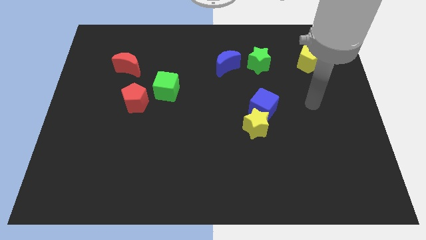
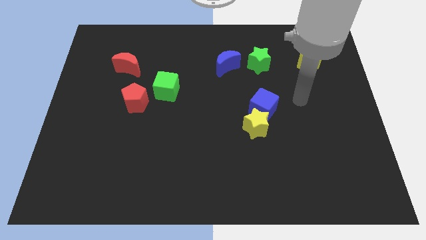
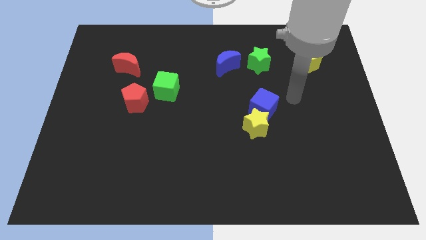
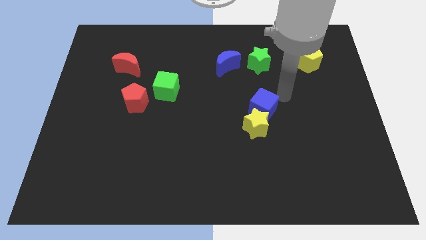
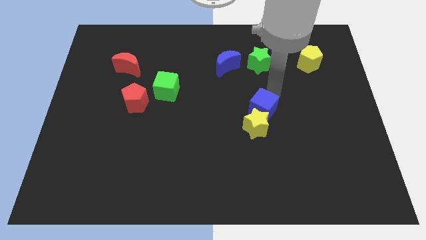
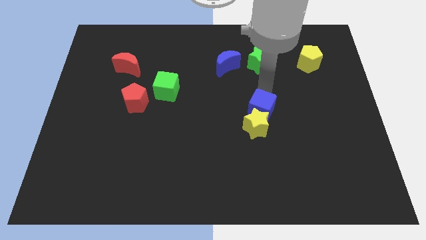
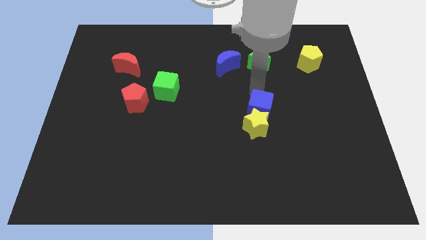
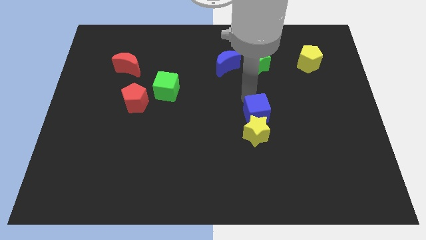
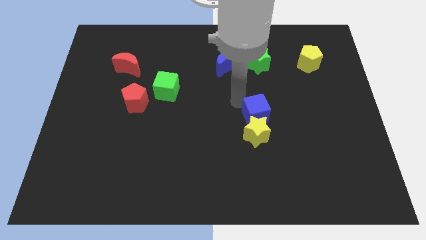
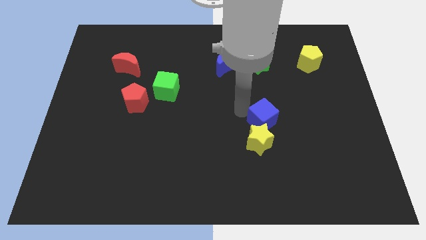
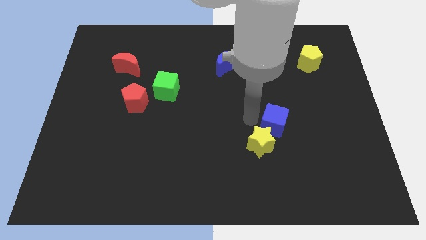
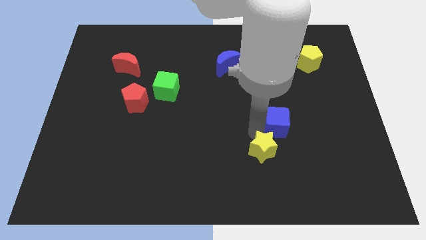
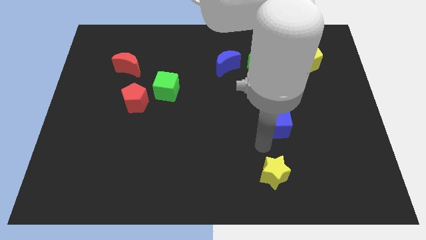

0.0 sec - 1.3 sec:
move the blue cube away from the yellow star

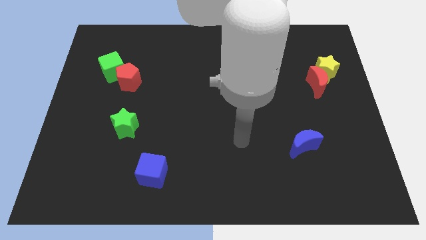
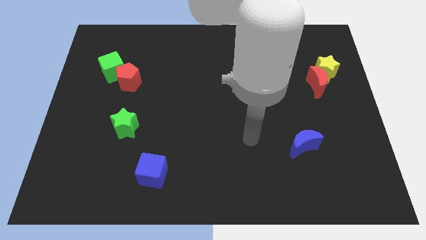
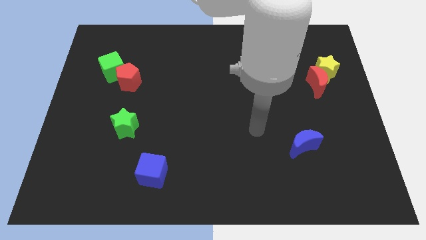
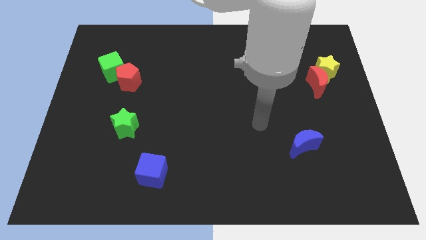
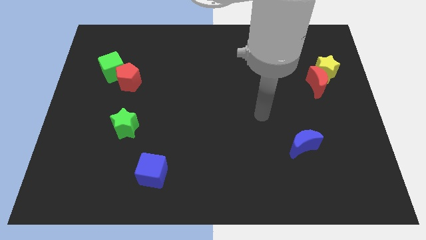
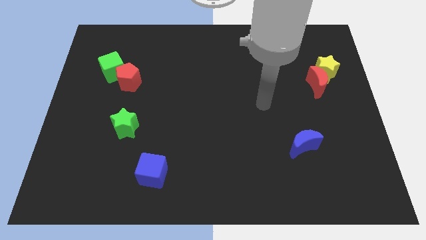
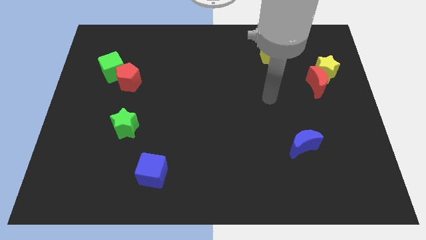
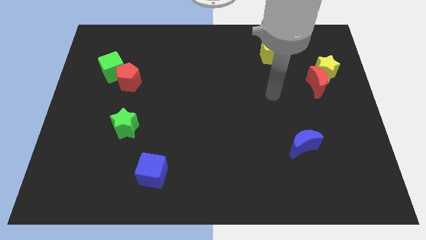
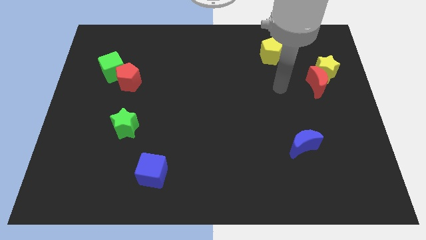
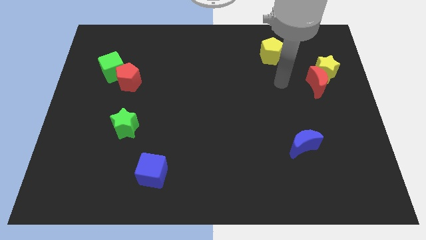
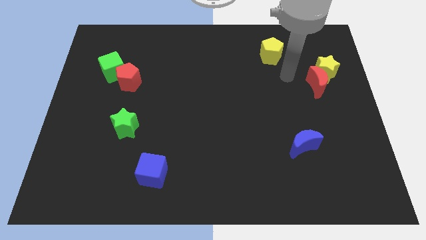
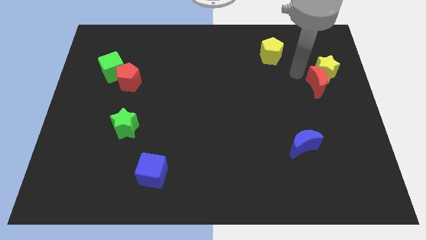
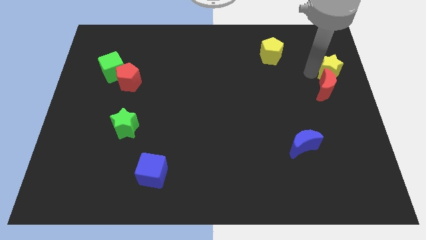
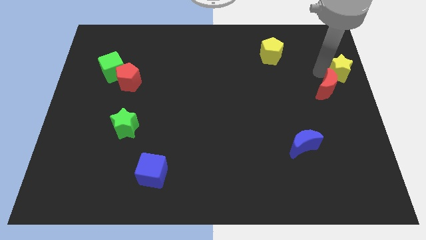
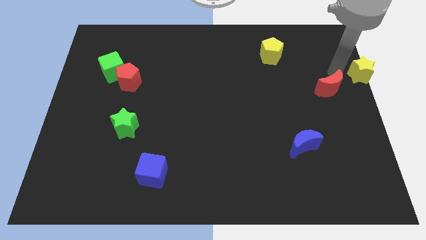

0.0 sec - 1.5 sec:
pull the red moon apart from the yellow star

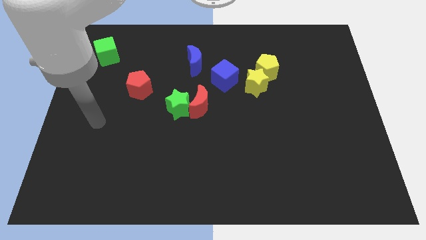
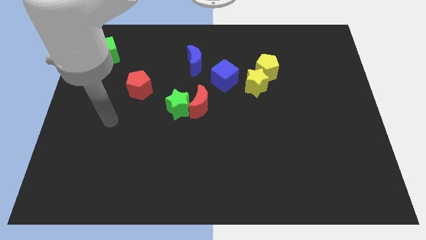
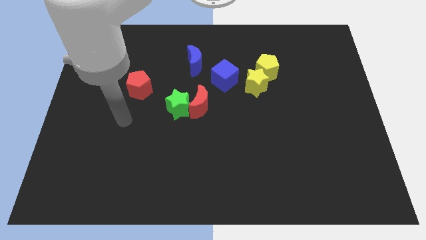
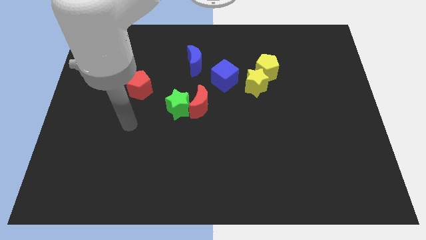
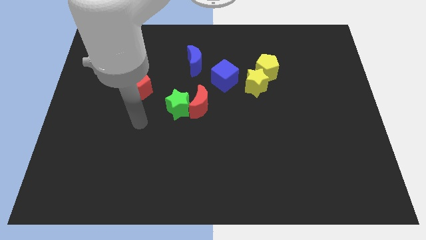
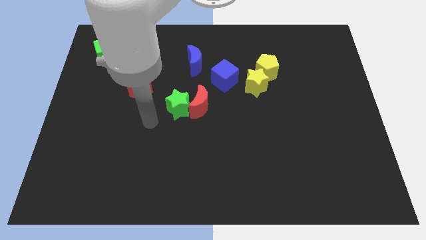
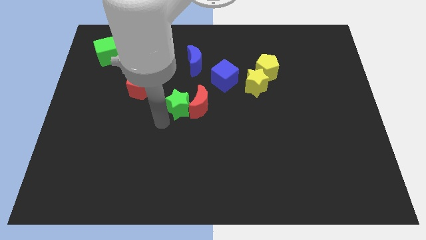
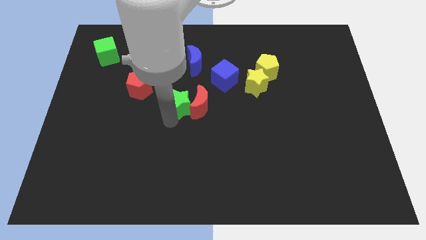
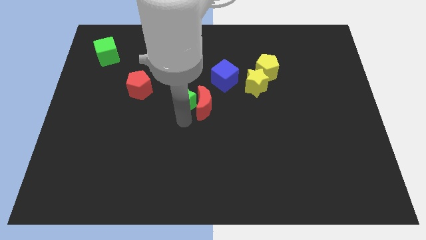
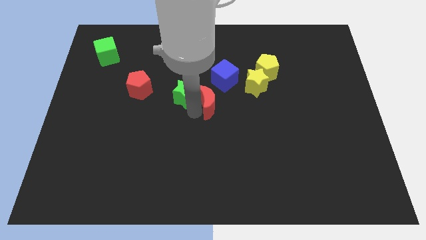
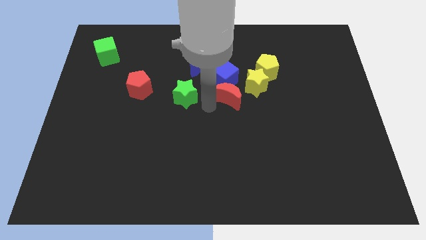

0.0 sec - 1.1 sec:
move the green star away from the red moon

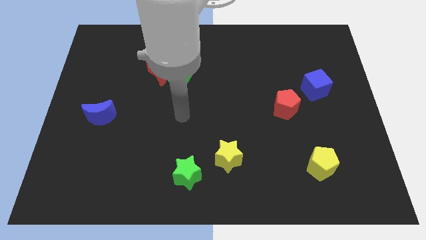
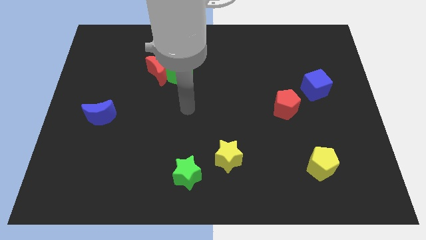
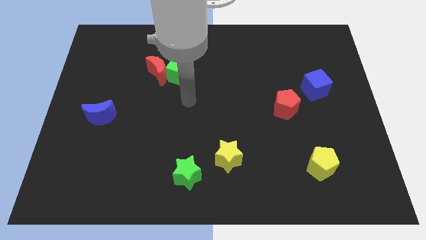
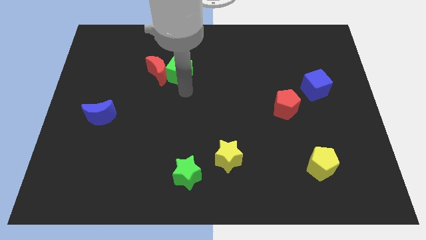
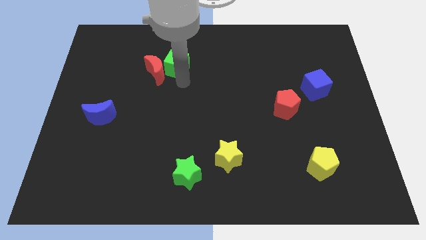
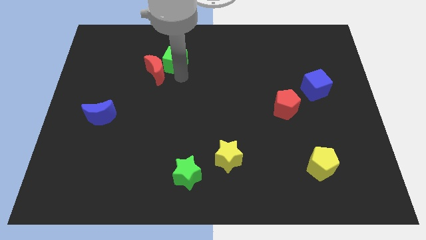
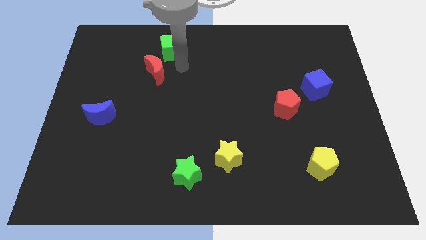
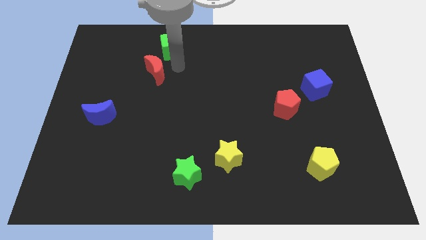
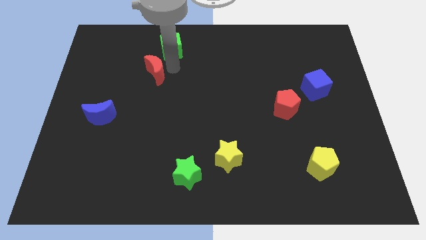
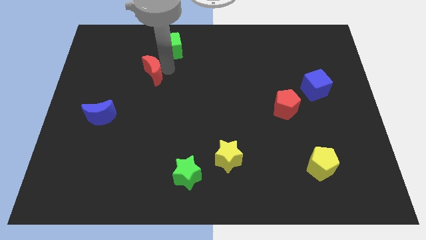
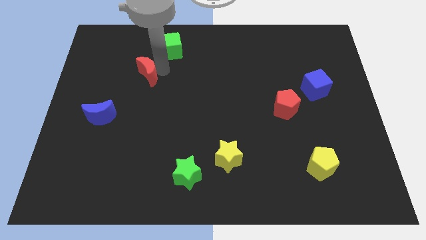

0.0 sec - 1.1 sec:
separate the red moon from the green cube

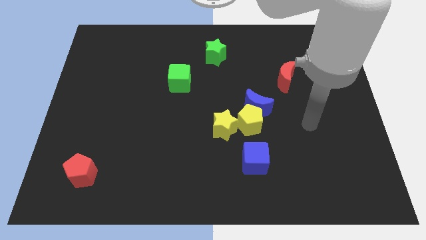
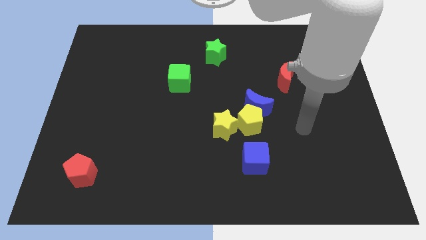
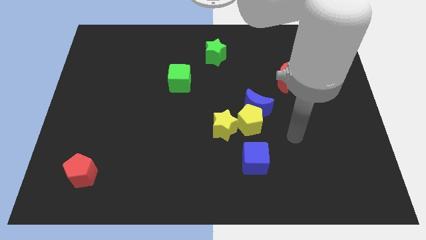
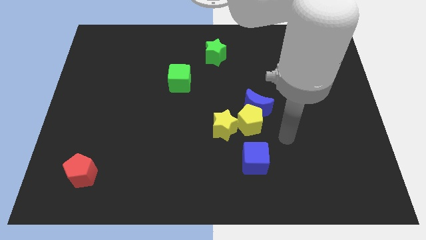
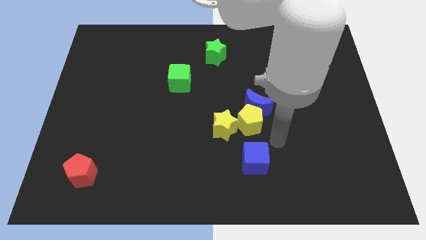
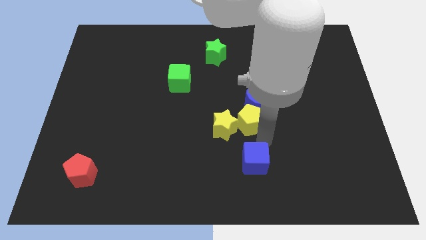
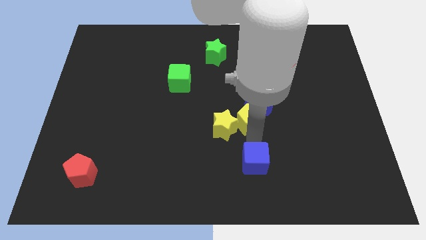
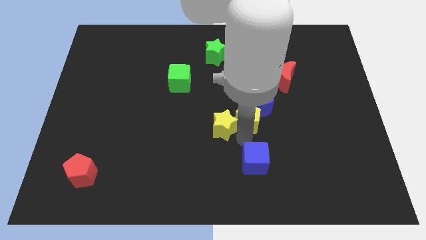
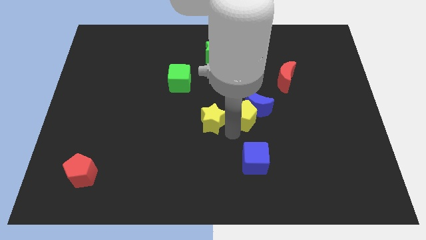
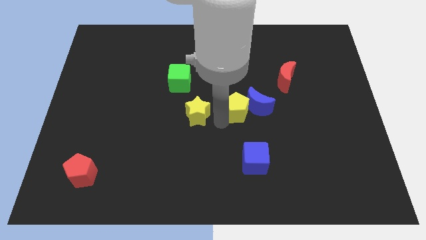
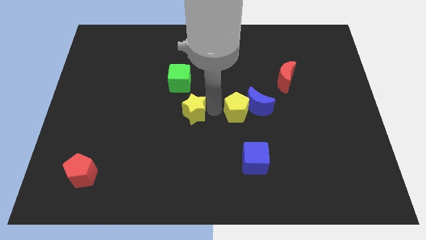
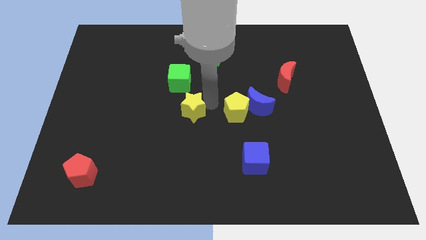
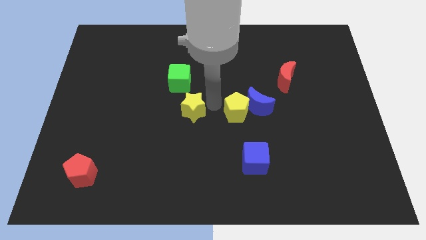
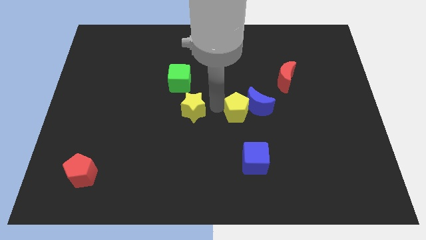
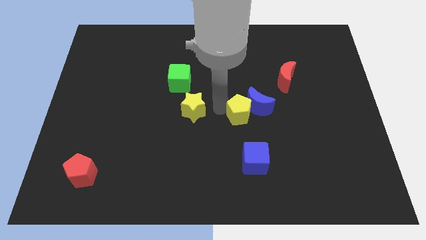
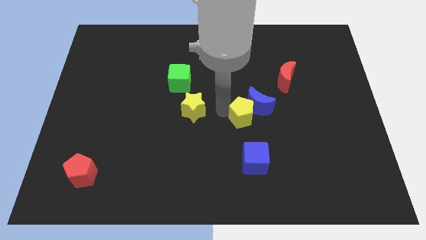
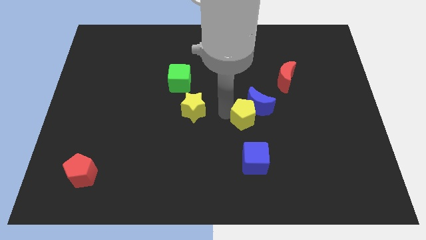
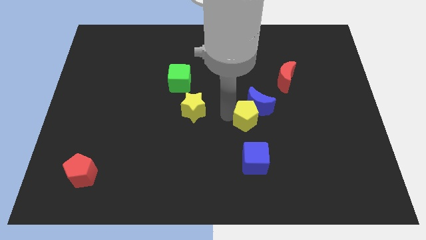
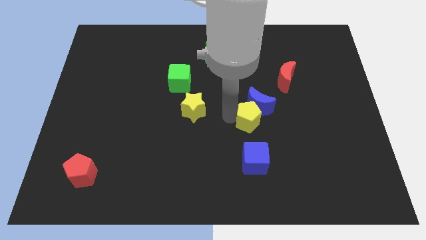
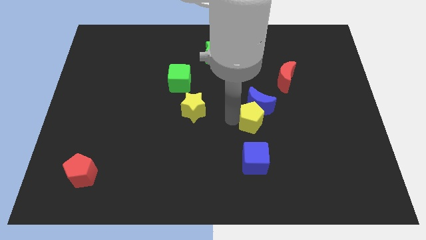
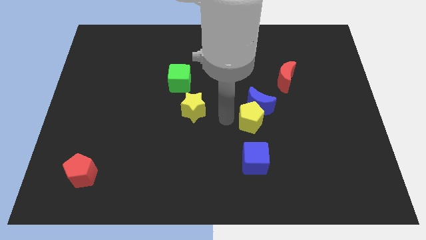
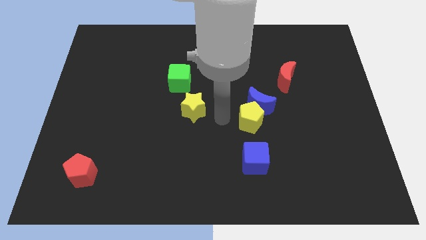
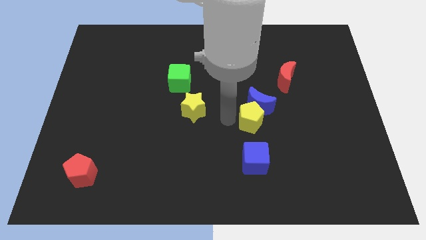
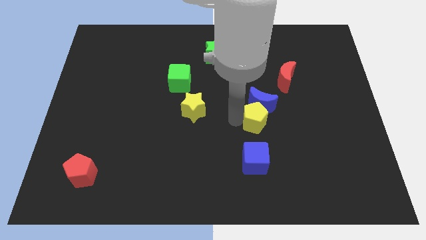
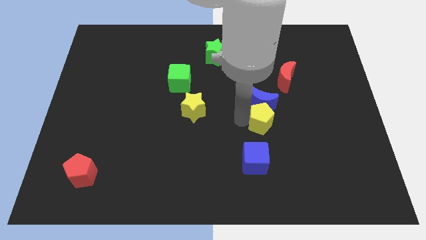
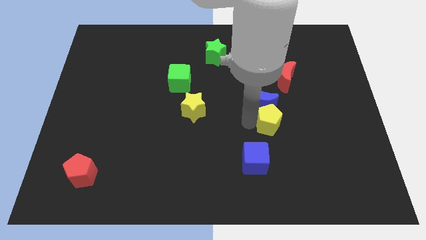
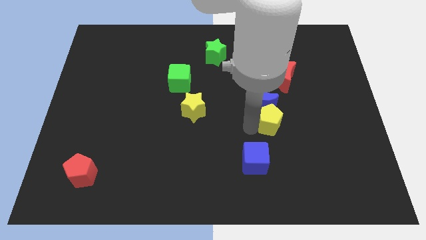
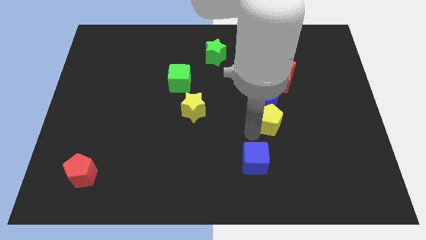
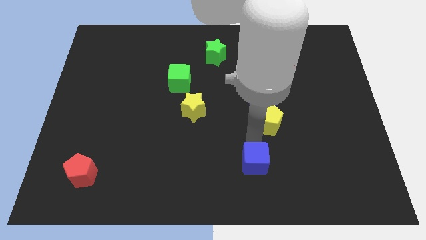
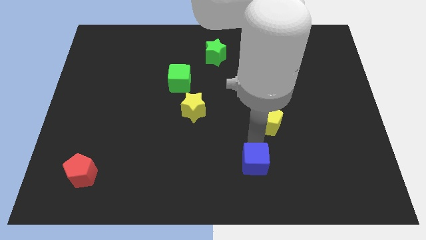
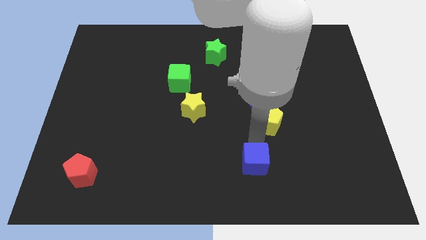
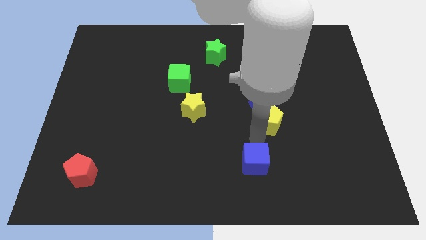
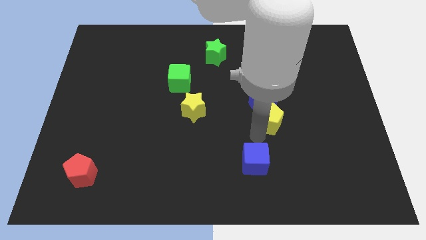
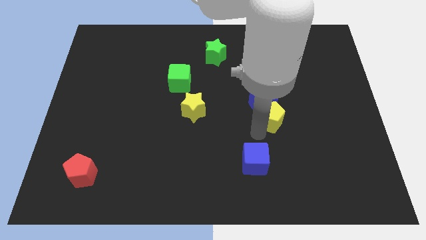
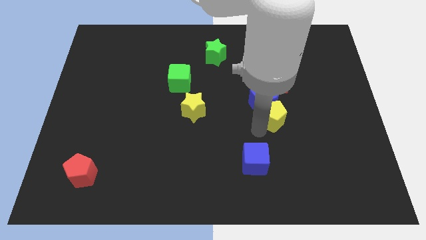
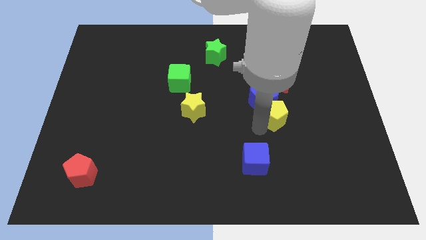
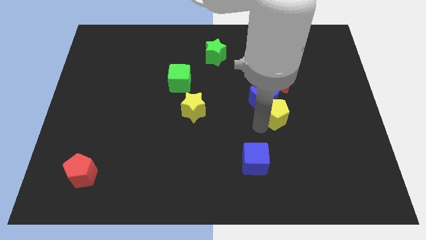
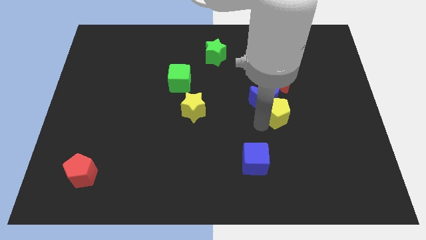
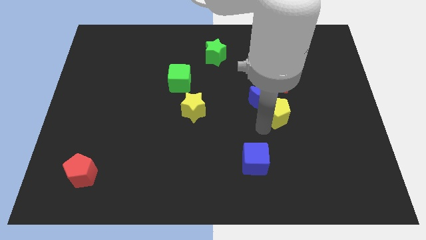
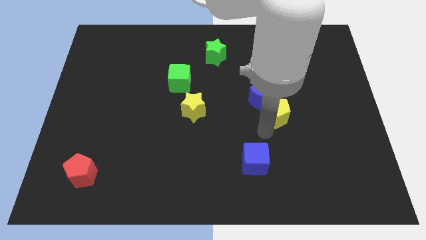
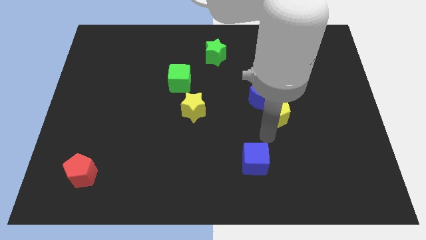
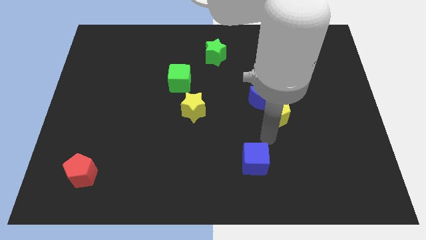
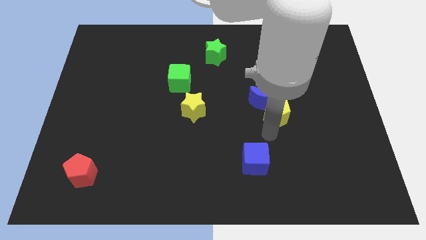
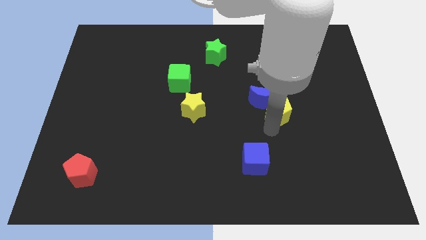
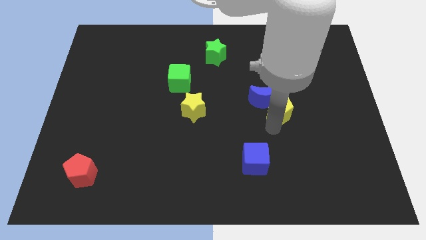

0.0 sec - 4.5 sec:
pull the yellow pentagon apart from the group of blocks
